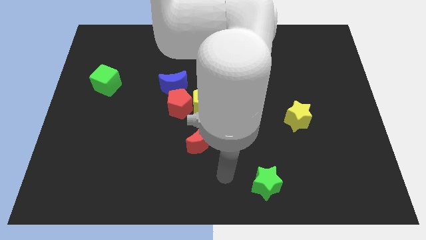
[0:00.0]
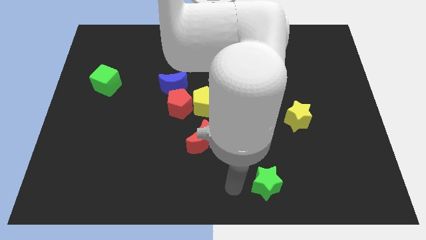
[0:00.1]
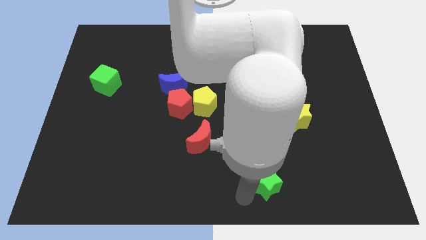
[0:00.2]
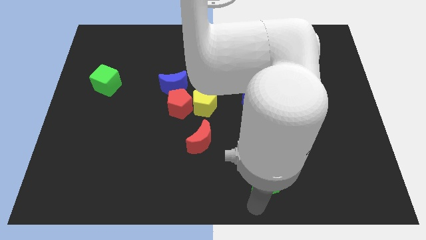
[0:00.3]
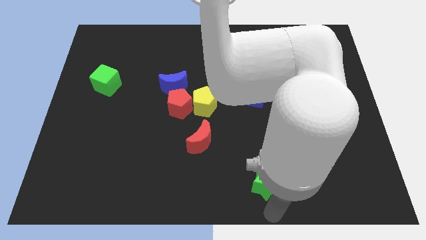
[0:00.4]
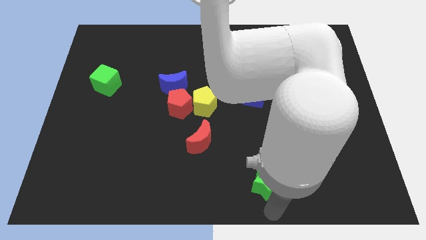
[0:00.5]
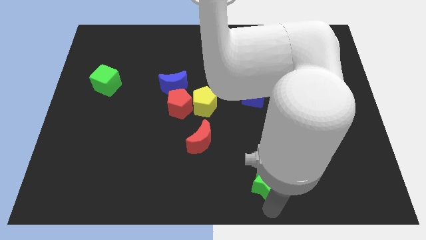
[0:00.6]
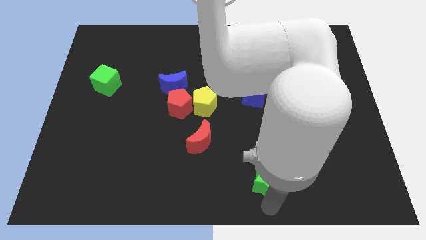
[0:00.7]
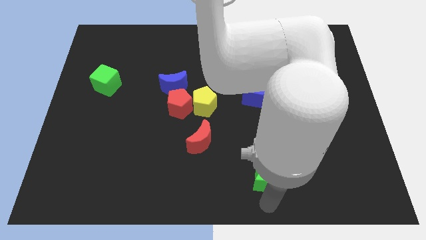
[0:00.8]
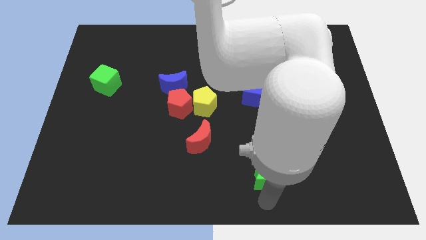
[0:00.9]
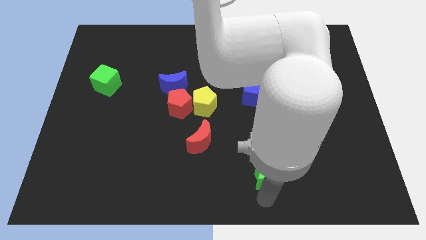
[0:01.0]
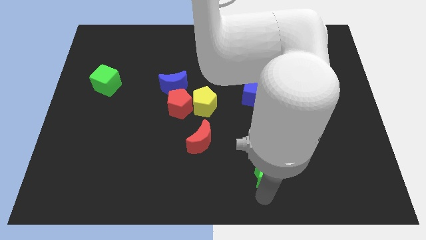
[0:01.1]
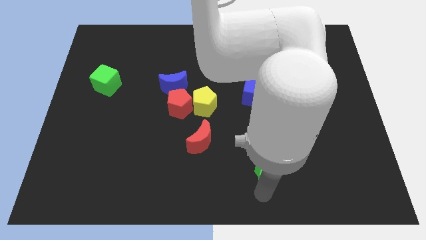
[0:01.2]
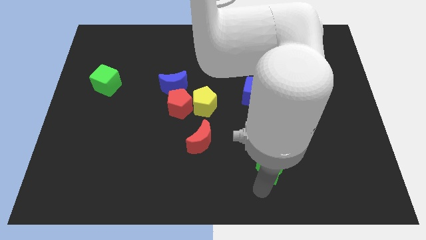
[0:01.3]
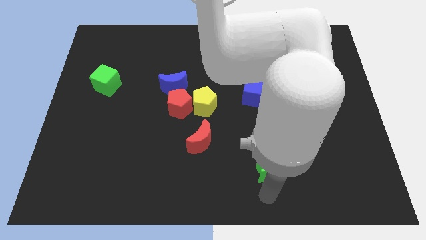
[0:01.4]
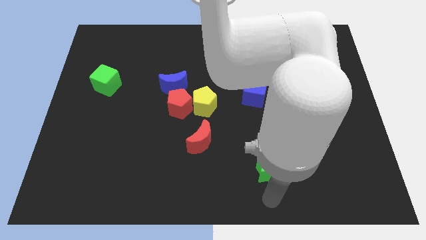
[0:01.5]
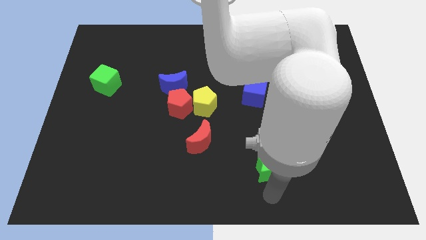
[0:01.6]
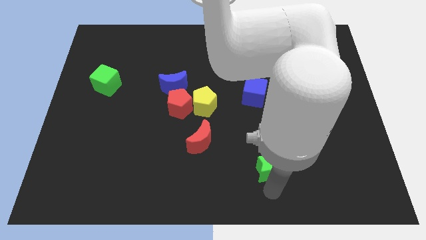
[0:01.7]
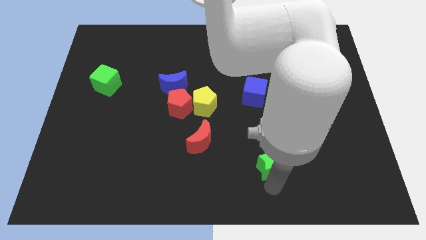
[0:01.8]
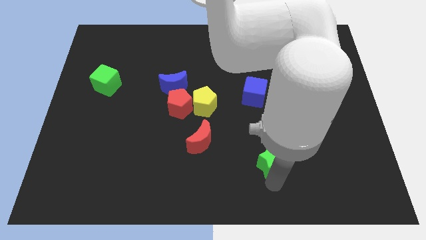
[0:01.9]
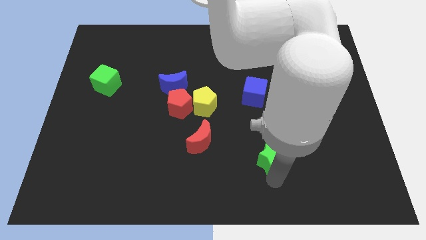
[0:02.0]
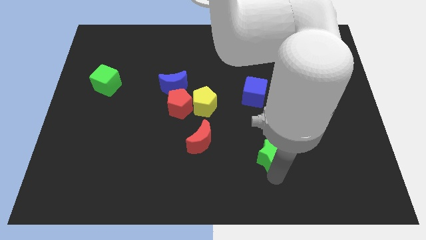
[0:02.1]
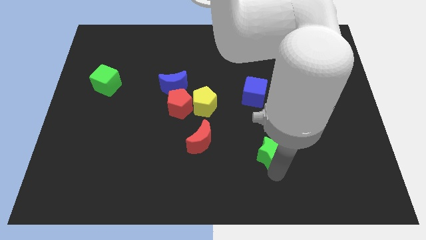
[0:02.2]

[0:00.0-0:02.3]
slightly push the green star up

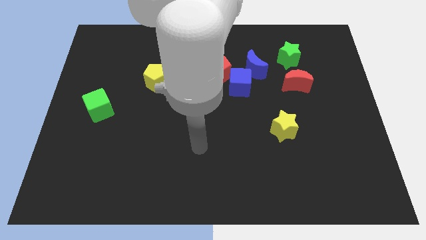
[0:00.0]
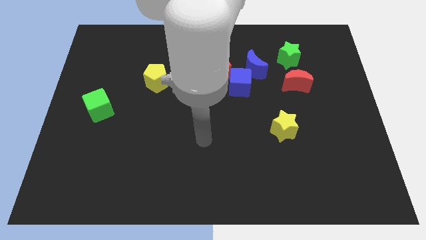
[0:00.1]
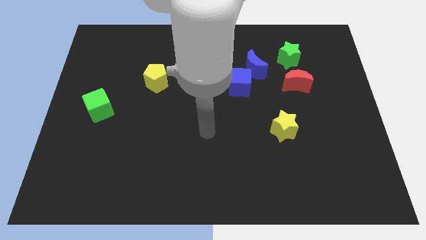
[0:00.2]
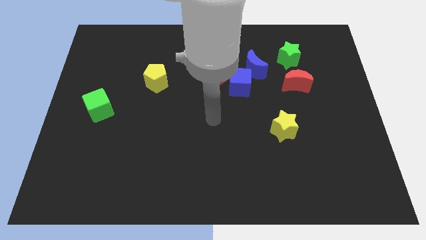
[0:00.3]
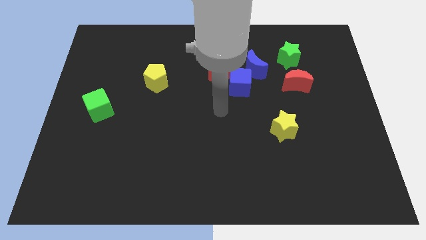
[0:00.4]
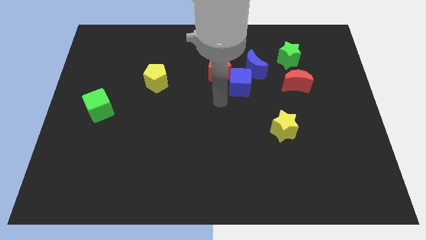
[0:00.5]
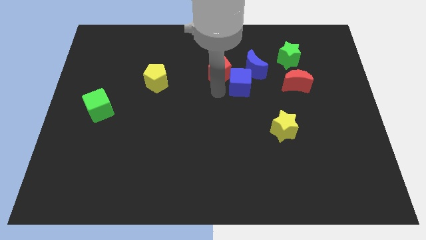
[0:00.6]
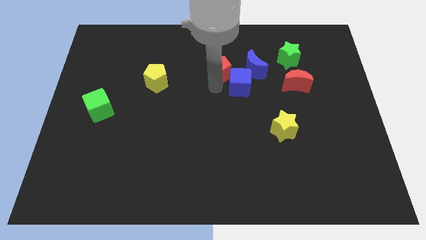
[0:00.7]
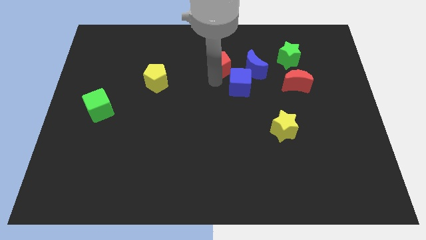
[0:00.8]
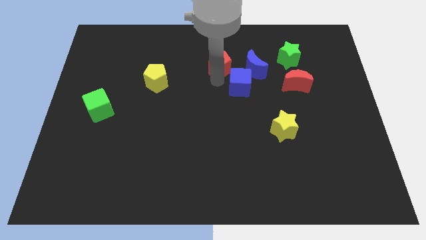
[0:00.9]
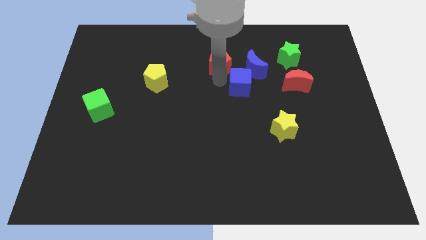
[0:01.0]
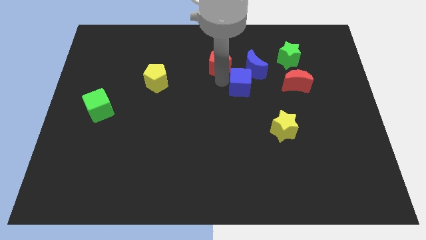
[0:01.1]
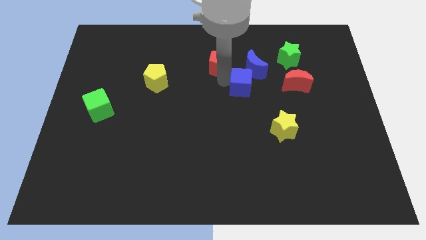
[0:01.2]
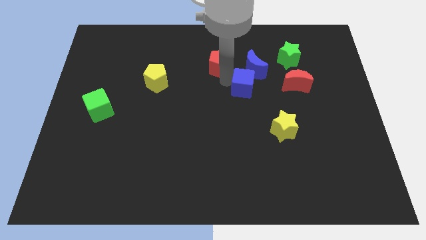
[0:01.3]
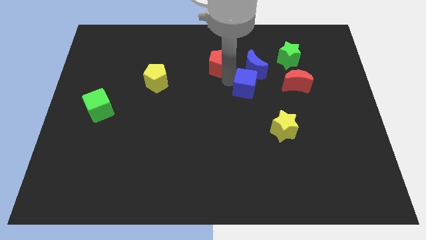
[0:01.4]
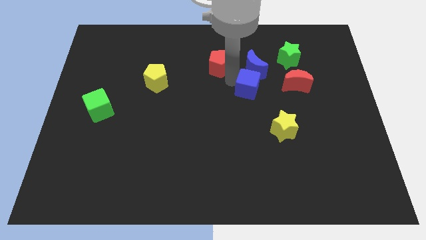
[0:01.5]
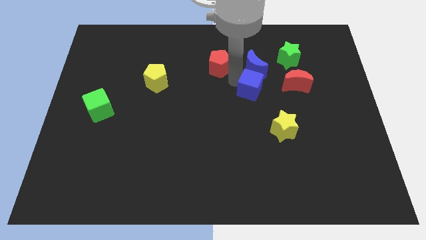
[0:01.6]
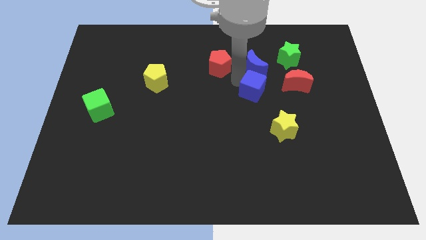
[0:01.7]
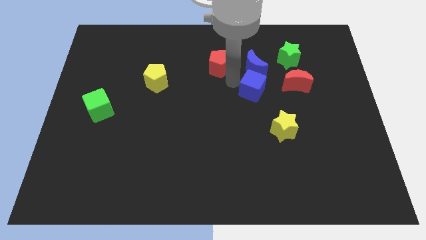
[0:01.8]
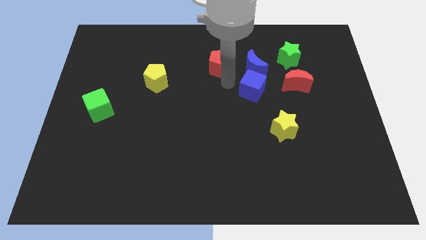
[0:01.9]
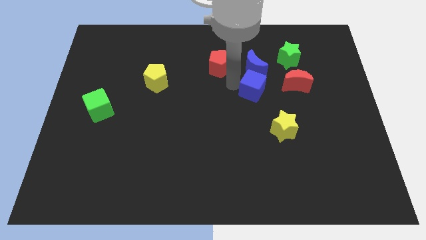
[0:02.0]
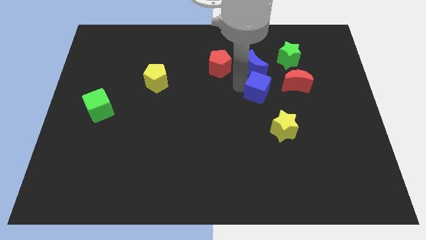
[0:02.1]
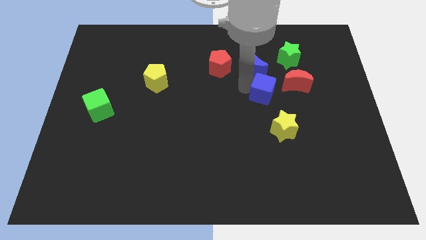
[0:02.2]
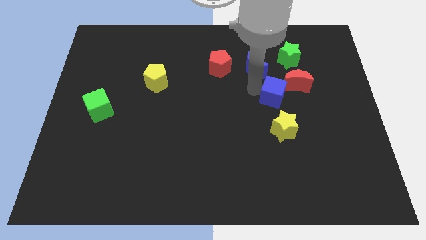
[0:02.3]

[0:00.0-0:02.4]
slightly push the blue cube right

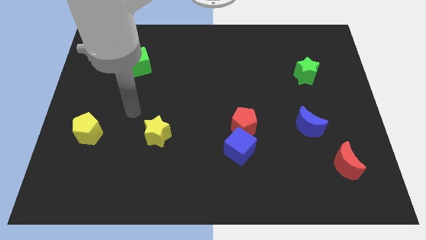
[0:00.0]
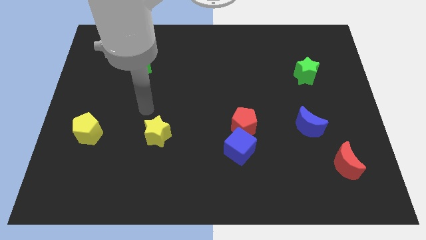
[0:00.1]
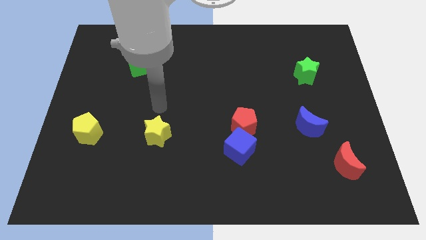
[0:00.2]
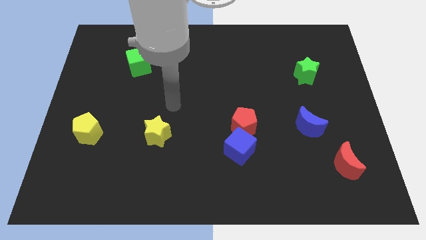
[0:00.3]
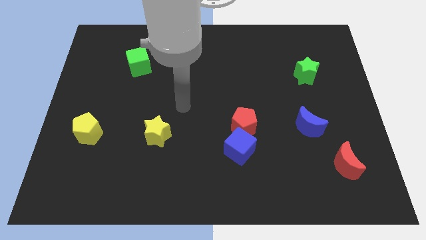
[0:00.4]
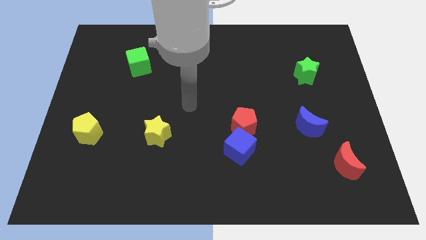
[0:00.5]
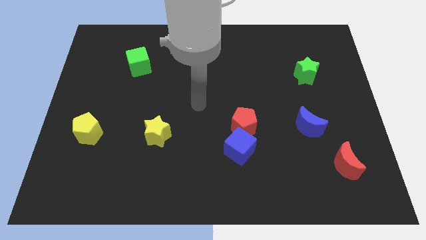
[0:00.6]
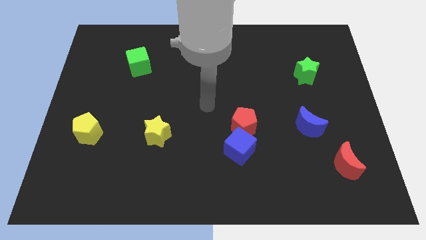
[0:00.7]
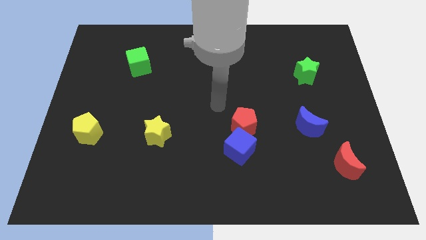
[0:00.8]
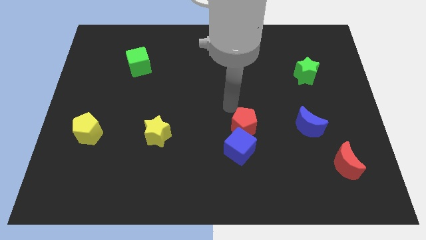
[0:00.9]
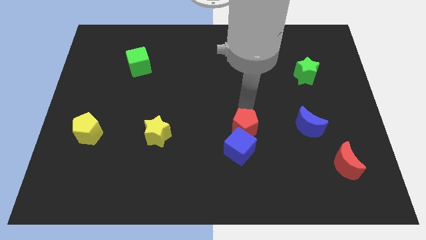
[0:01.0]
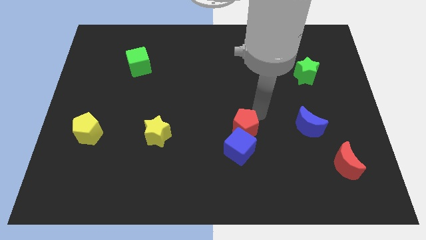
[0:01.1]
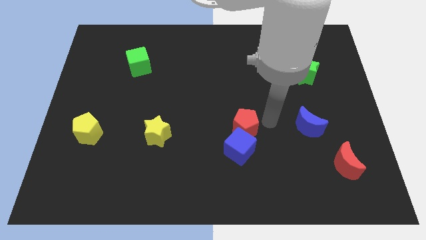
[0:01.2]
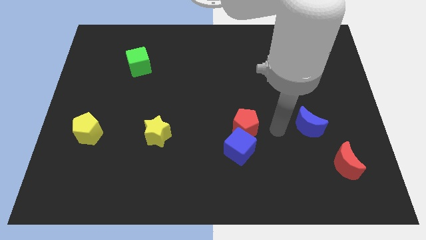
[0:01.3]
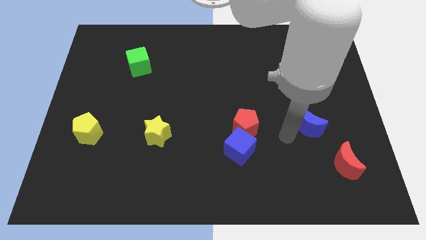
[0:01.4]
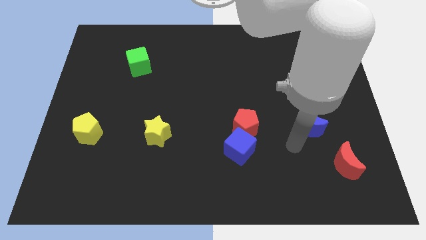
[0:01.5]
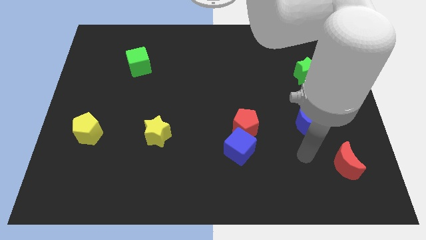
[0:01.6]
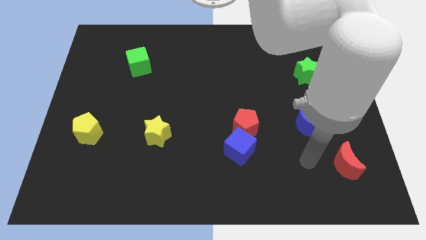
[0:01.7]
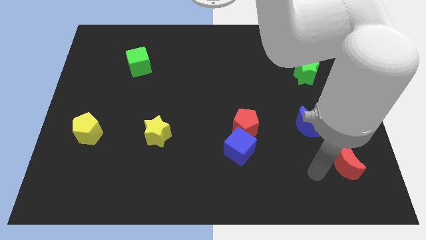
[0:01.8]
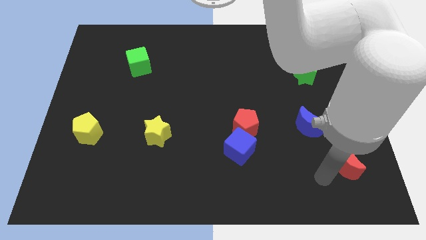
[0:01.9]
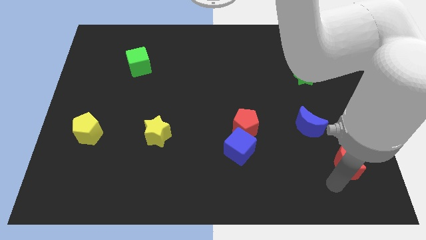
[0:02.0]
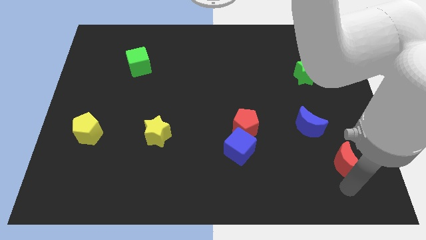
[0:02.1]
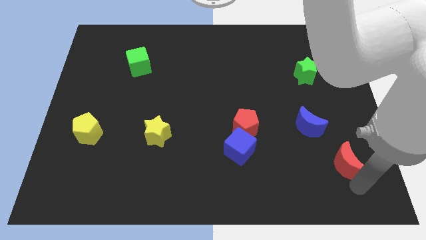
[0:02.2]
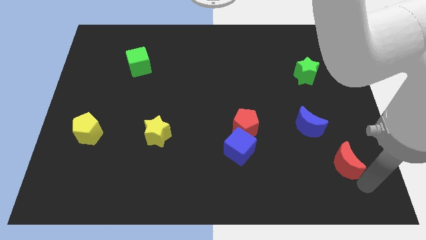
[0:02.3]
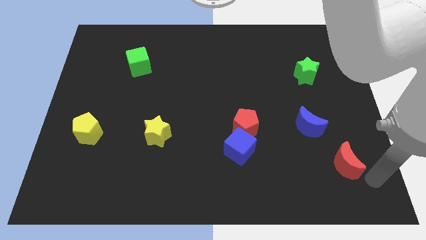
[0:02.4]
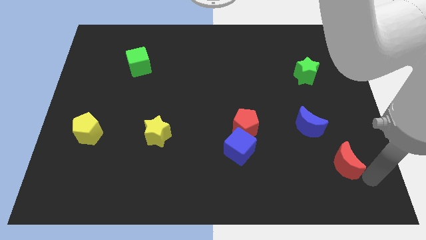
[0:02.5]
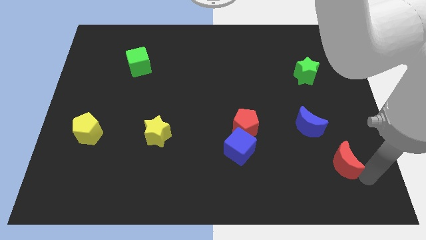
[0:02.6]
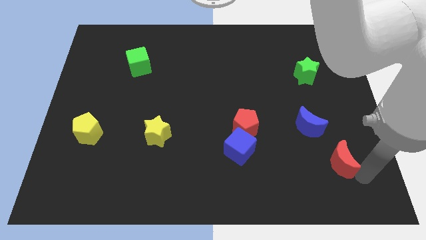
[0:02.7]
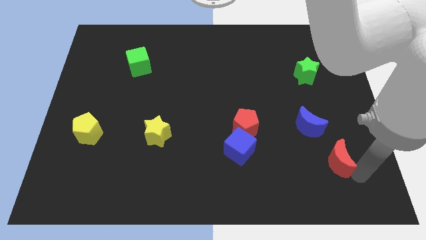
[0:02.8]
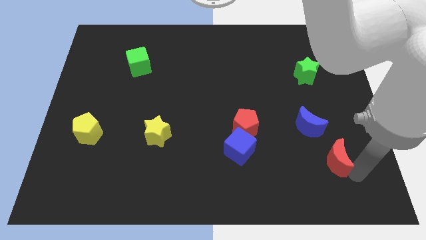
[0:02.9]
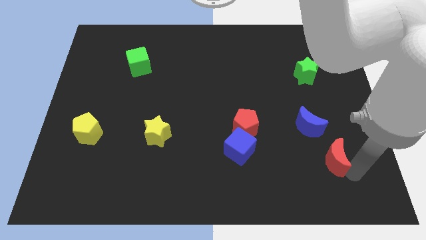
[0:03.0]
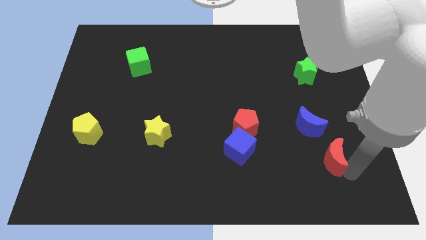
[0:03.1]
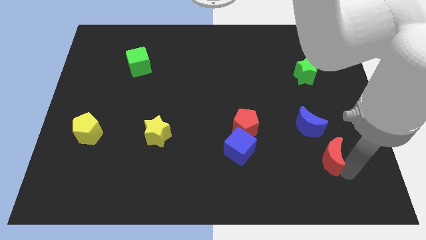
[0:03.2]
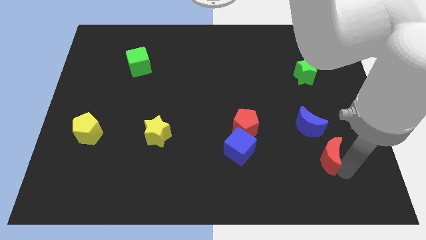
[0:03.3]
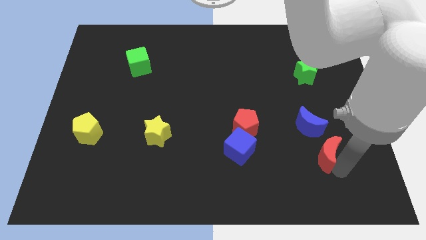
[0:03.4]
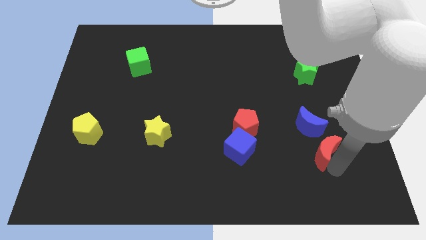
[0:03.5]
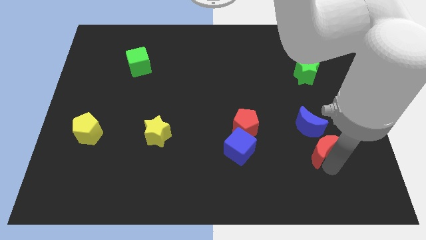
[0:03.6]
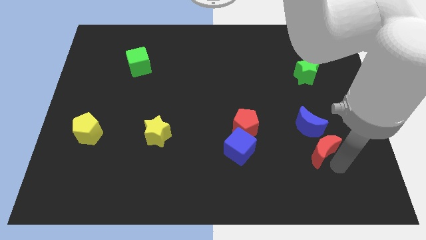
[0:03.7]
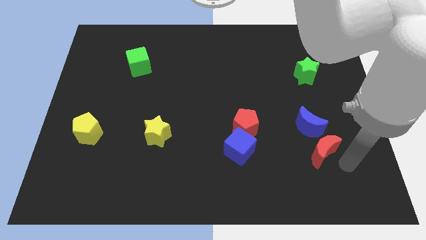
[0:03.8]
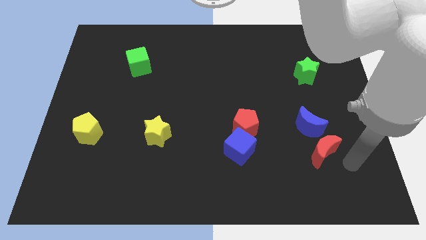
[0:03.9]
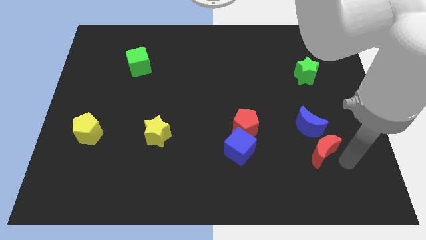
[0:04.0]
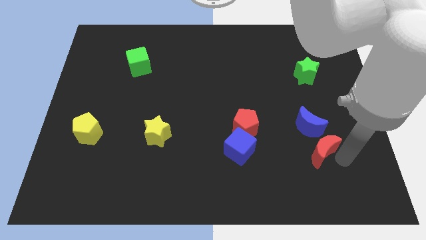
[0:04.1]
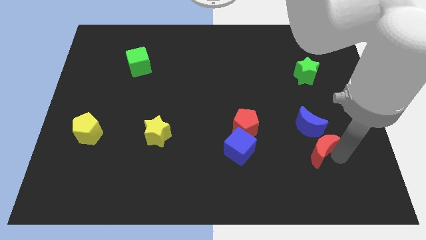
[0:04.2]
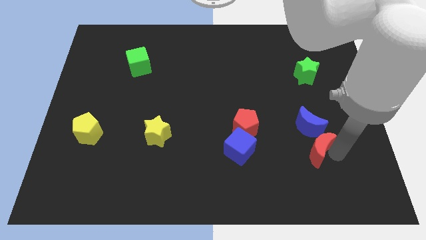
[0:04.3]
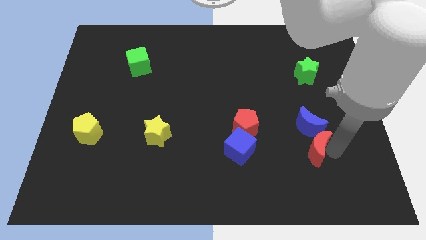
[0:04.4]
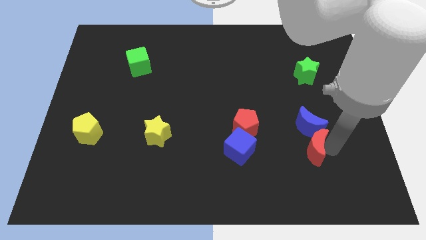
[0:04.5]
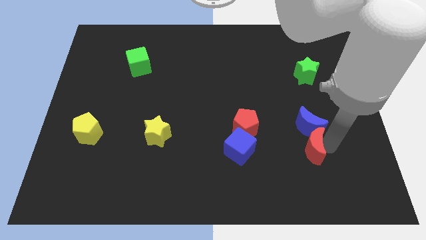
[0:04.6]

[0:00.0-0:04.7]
slightly move the red moon upwards and then to the left
